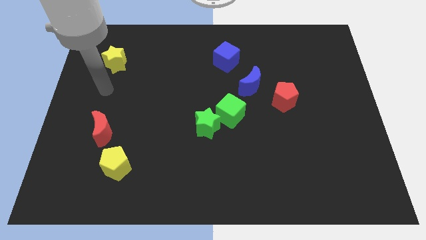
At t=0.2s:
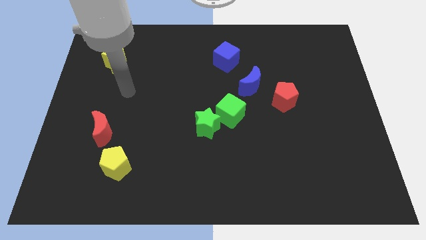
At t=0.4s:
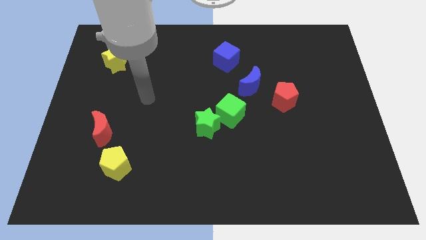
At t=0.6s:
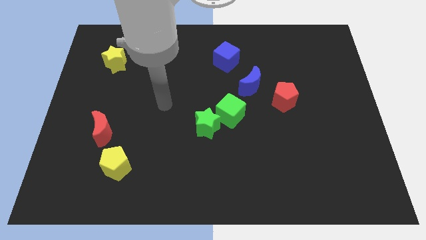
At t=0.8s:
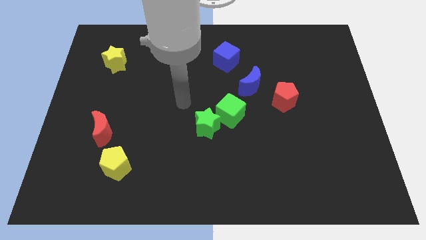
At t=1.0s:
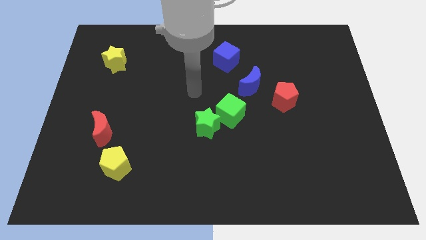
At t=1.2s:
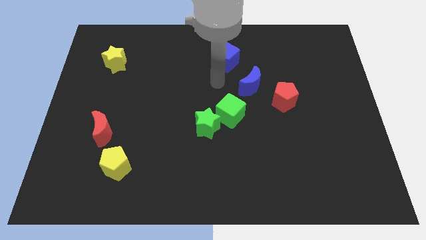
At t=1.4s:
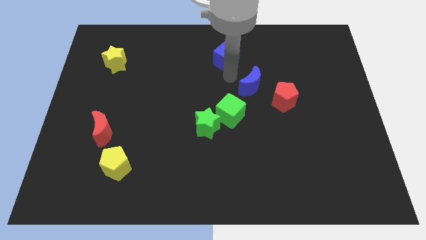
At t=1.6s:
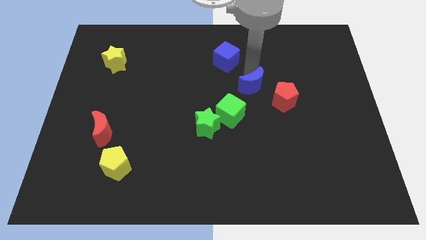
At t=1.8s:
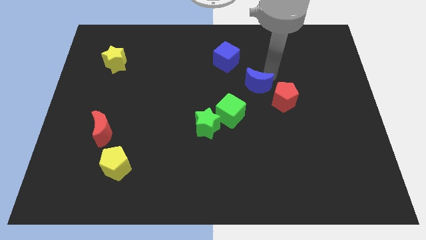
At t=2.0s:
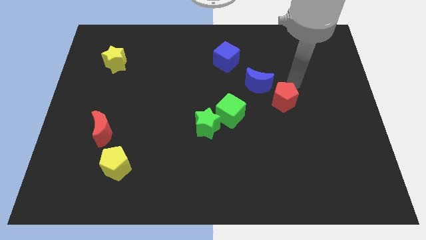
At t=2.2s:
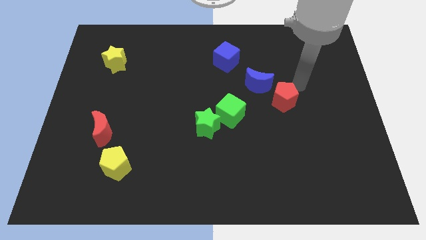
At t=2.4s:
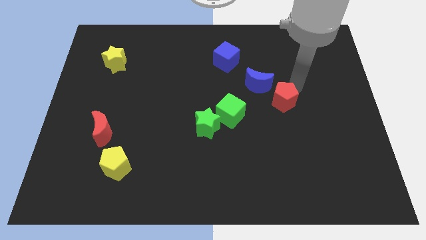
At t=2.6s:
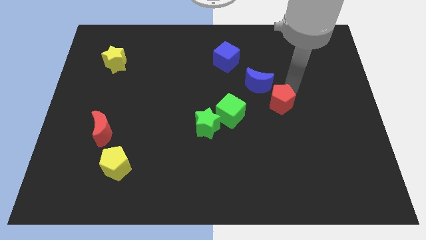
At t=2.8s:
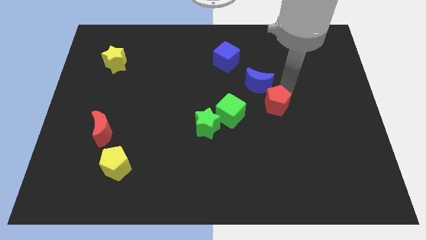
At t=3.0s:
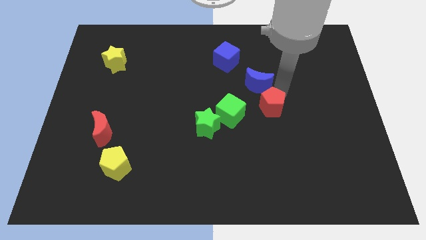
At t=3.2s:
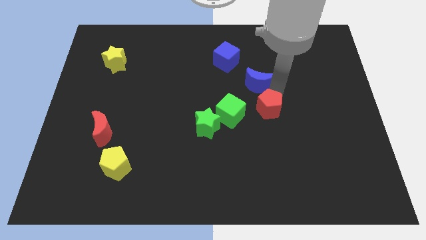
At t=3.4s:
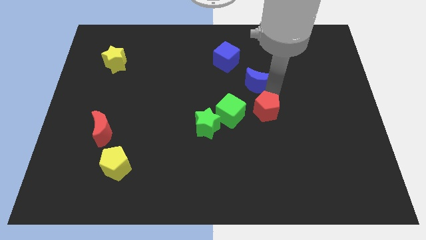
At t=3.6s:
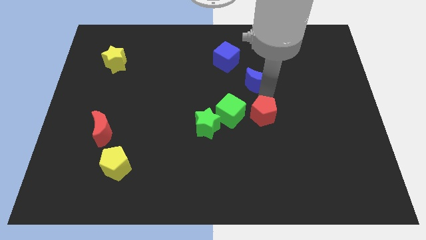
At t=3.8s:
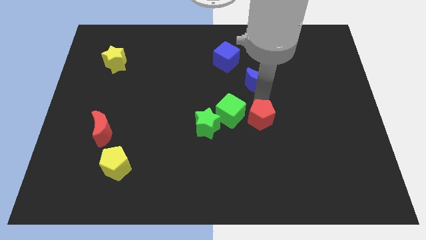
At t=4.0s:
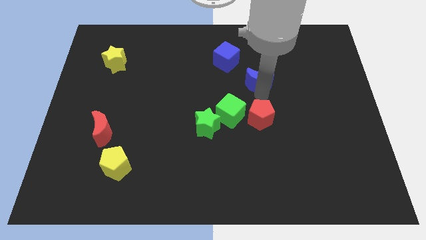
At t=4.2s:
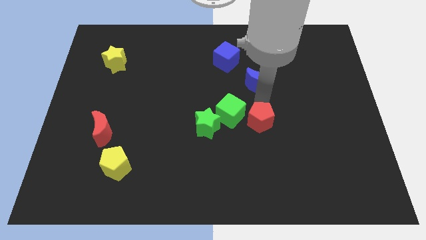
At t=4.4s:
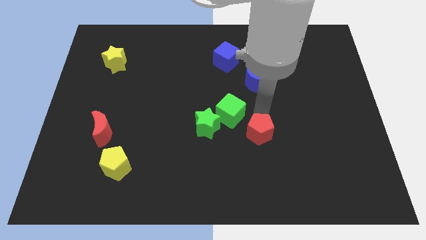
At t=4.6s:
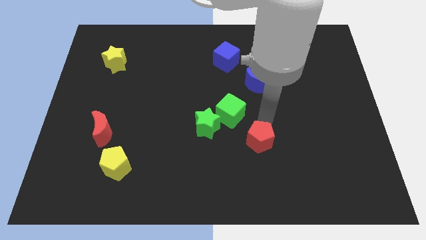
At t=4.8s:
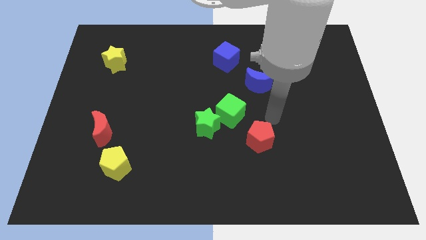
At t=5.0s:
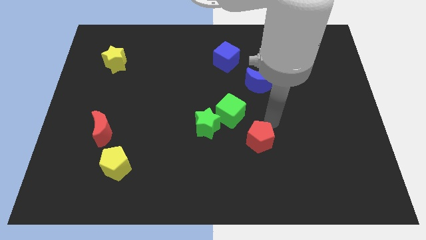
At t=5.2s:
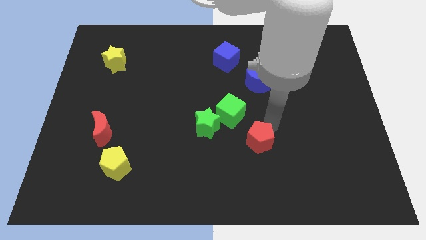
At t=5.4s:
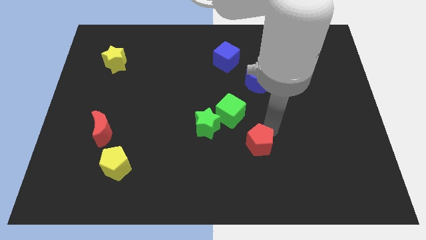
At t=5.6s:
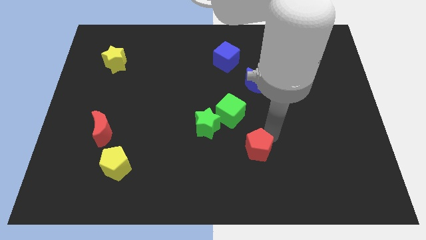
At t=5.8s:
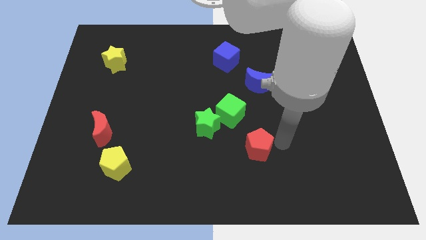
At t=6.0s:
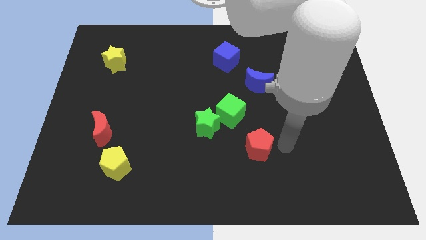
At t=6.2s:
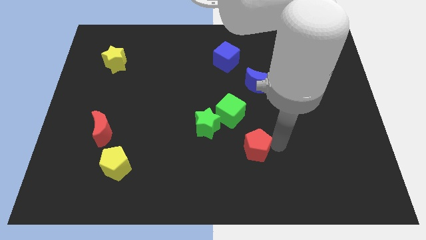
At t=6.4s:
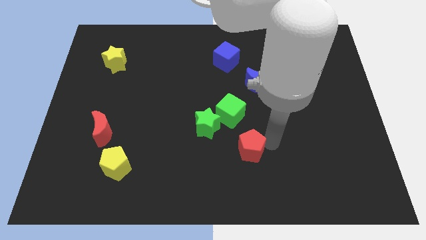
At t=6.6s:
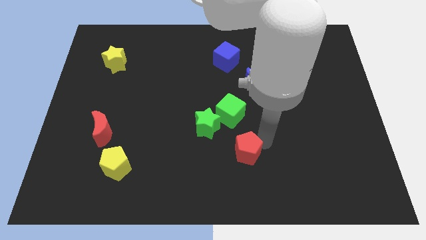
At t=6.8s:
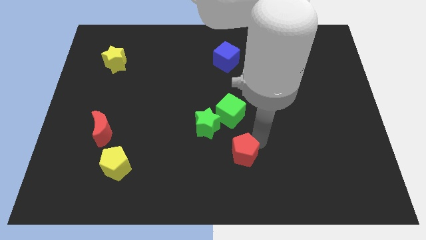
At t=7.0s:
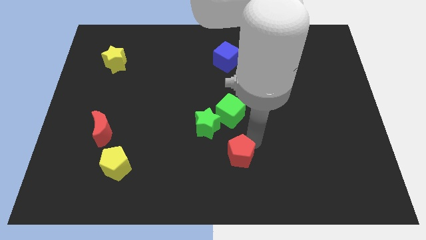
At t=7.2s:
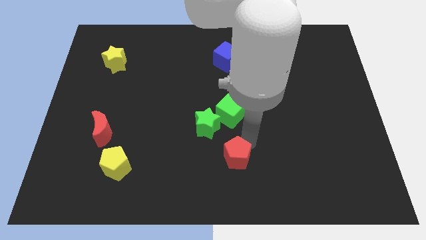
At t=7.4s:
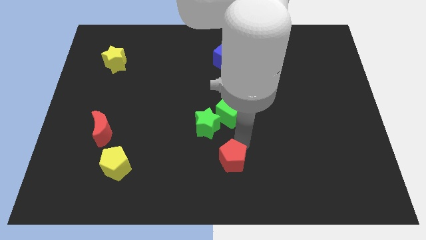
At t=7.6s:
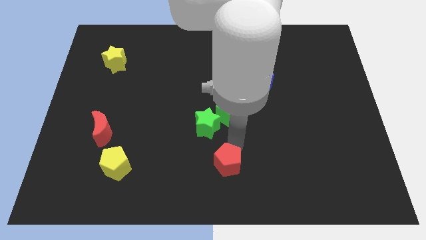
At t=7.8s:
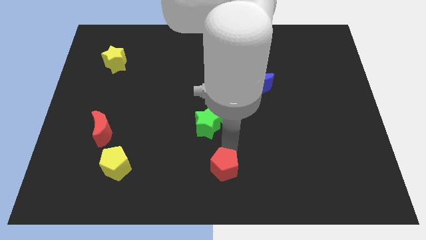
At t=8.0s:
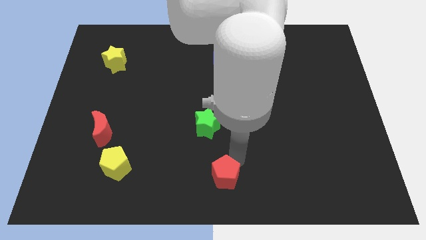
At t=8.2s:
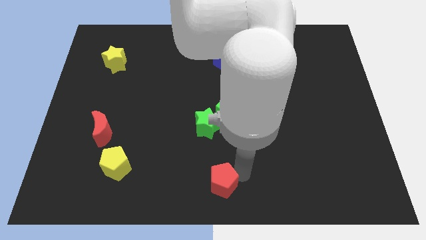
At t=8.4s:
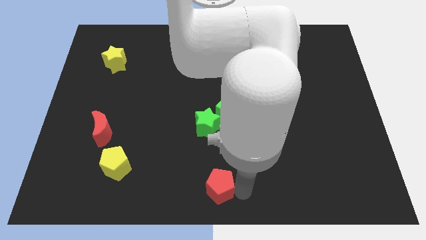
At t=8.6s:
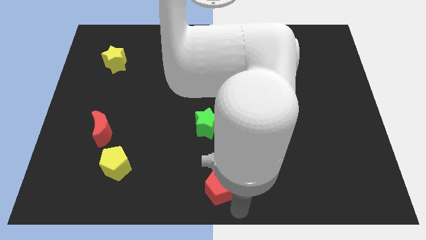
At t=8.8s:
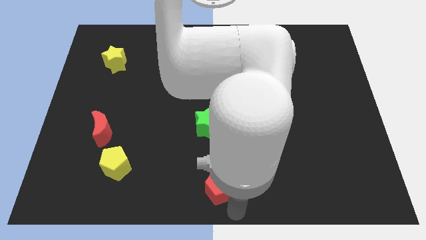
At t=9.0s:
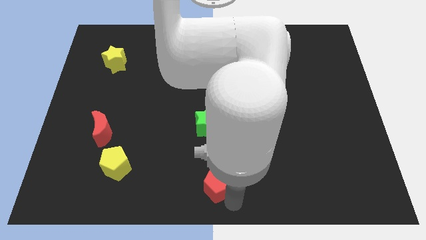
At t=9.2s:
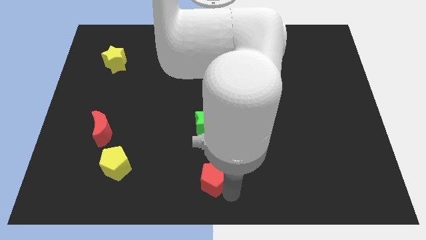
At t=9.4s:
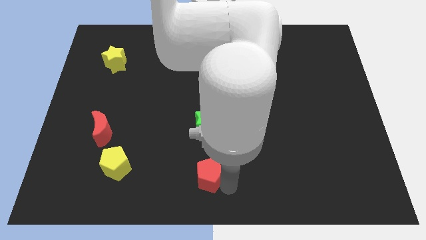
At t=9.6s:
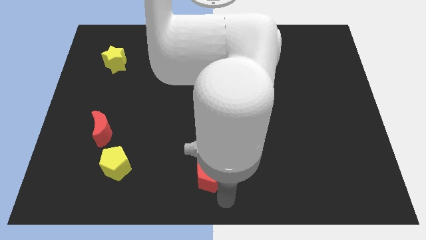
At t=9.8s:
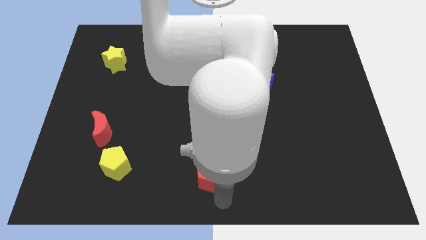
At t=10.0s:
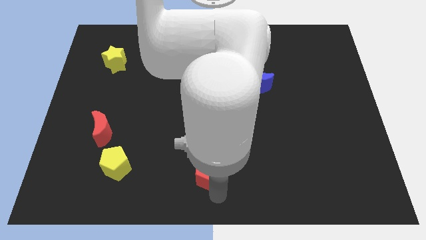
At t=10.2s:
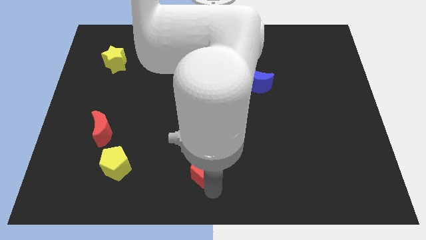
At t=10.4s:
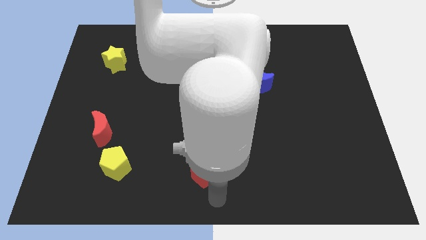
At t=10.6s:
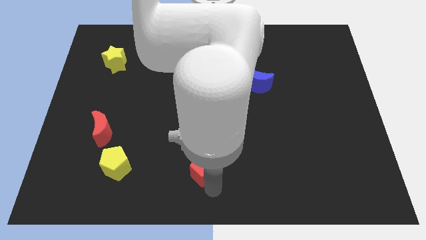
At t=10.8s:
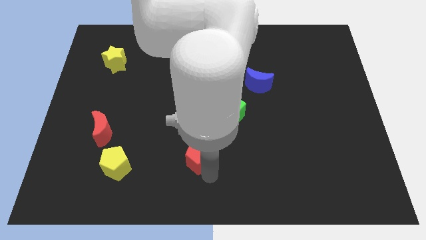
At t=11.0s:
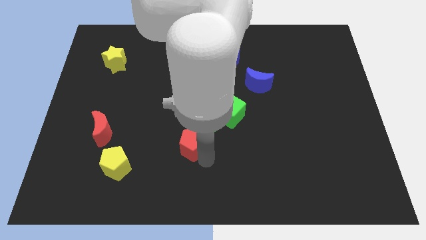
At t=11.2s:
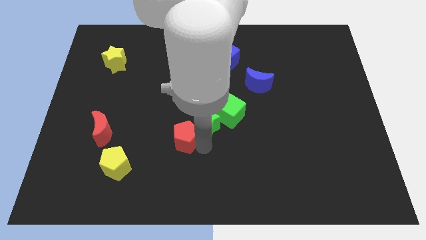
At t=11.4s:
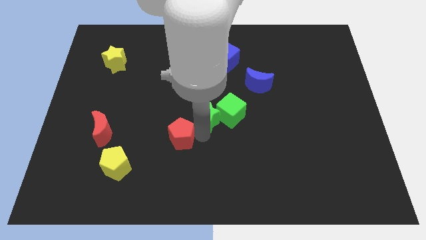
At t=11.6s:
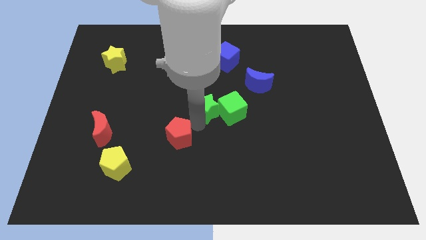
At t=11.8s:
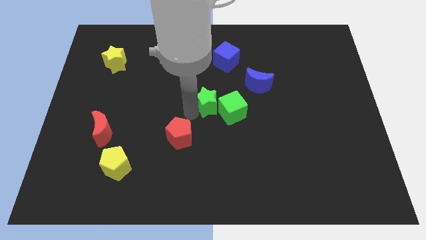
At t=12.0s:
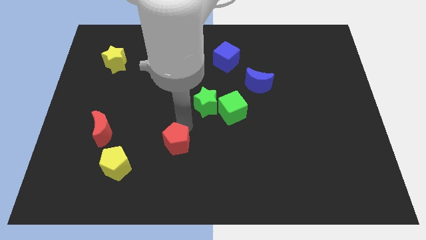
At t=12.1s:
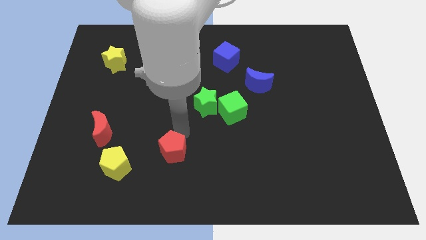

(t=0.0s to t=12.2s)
push the red pentagon right of the yellow pentagon
